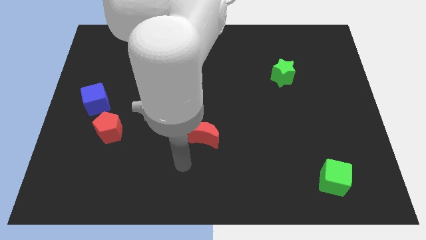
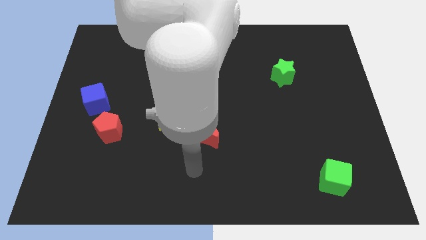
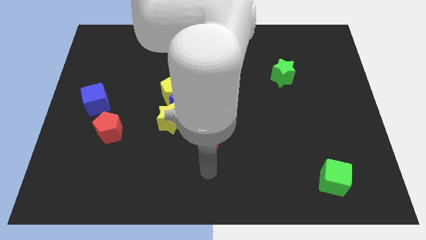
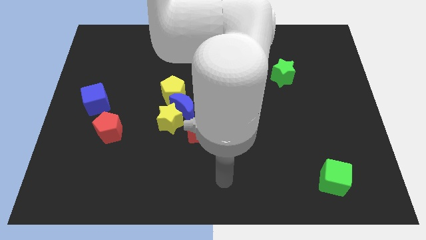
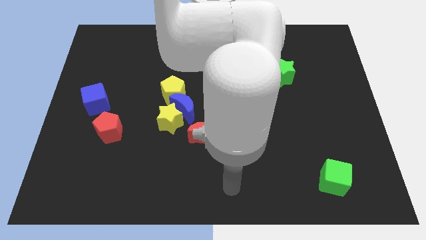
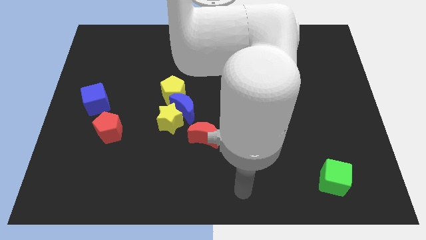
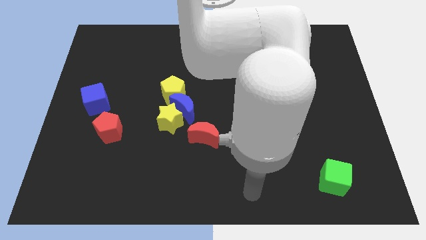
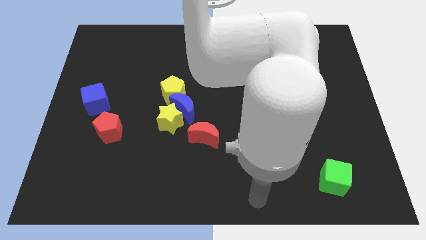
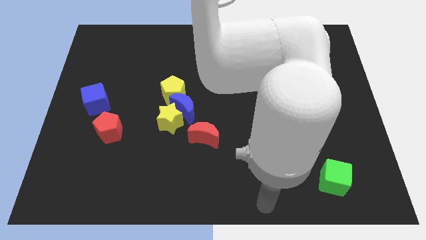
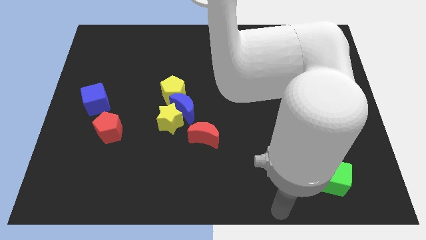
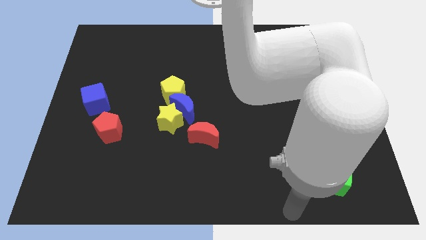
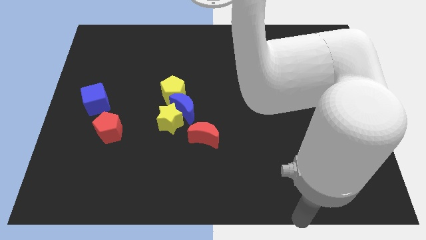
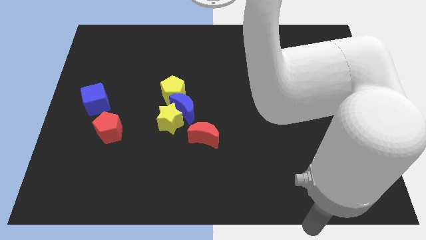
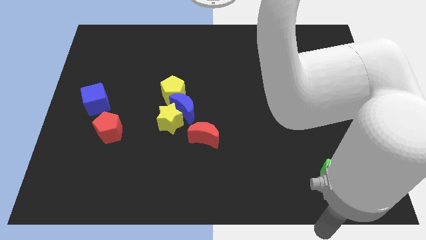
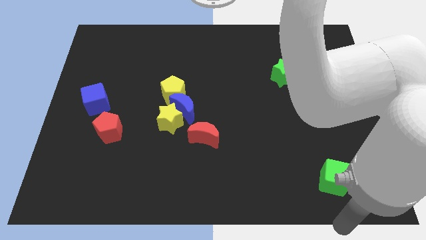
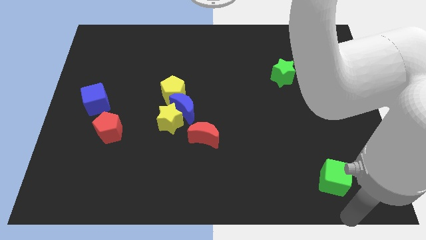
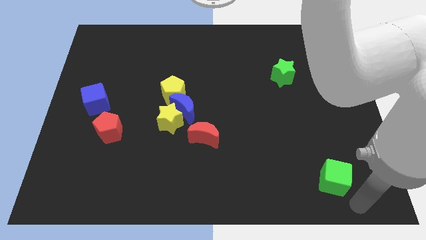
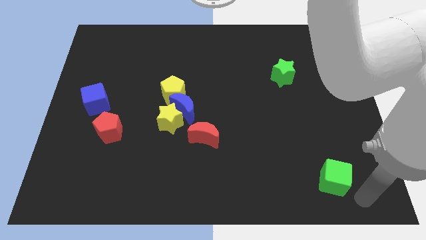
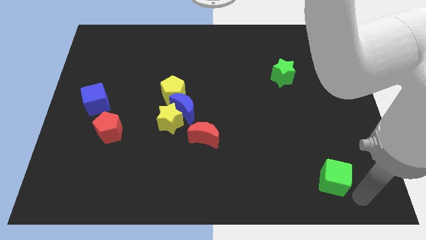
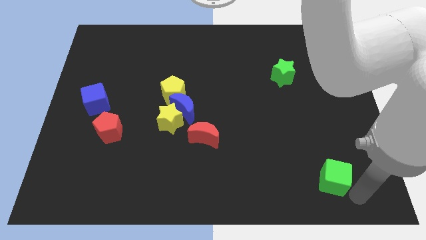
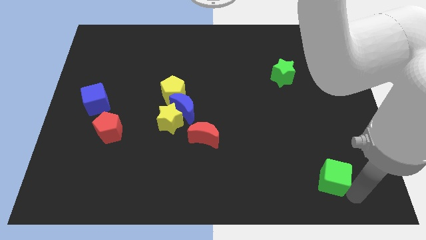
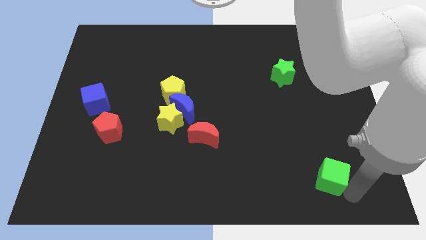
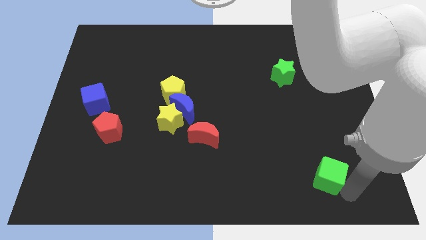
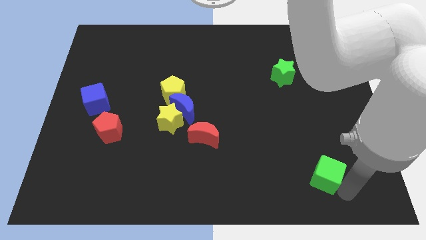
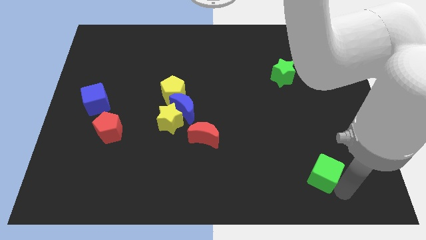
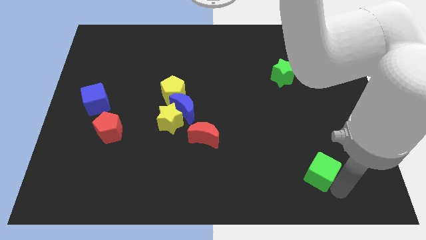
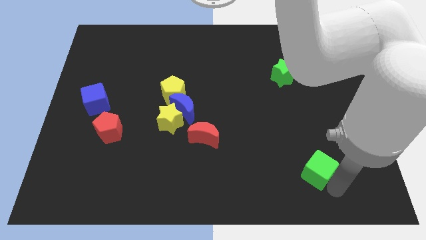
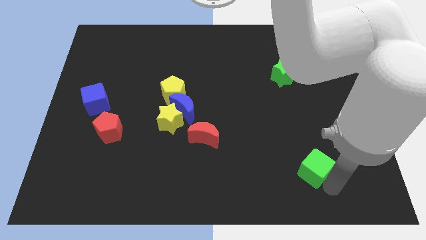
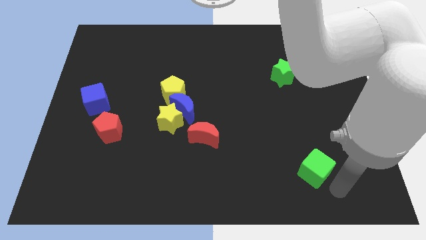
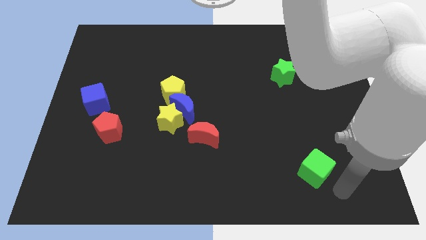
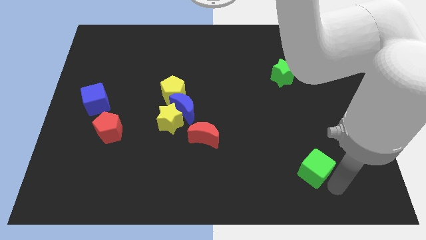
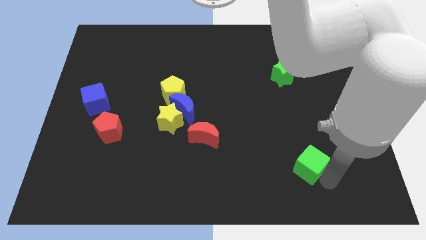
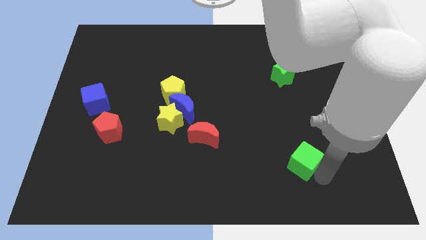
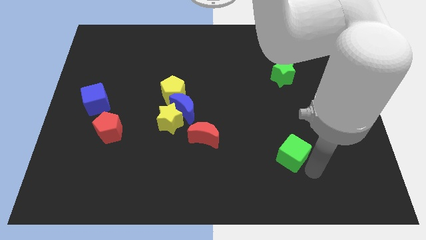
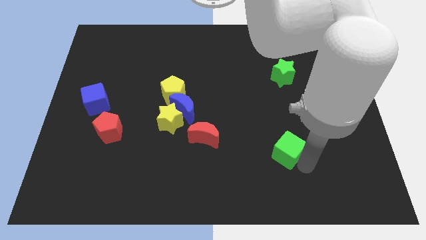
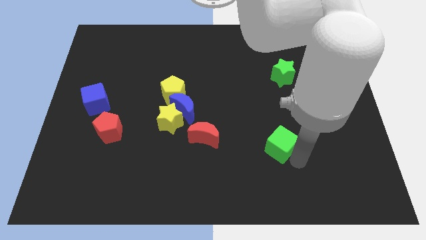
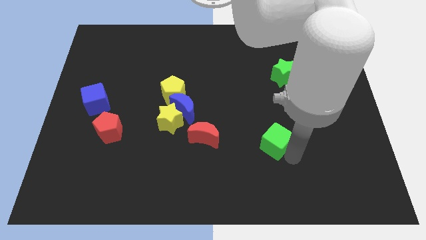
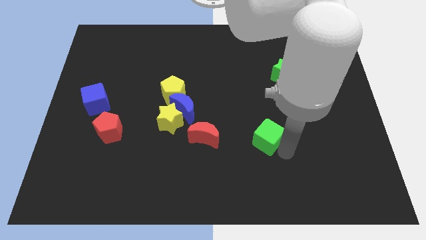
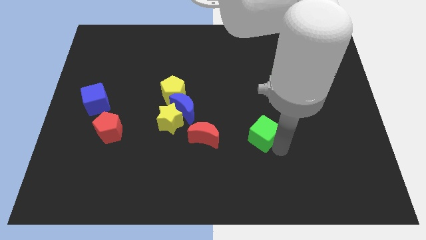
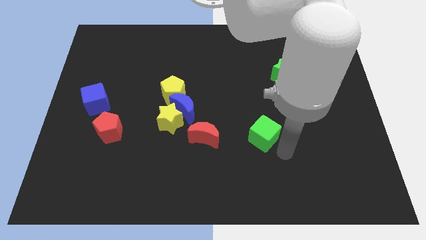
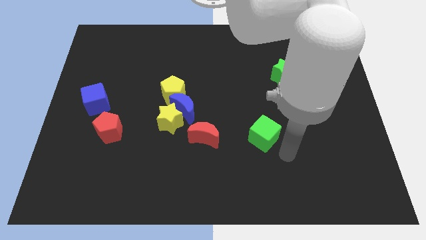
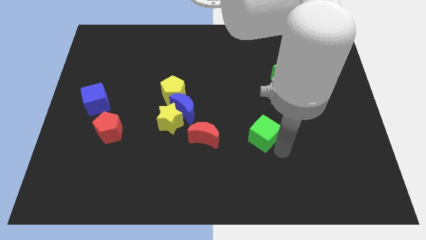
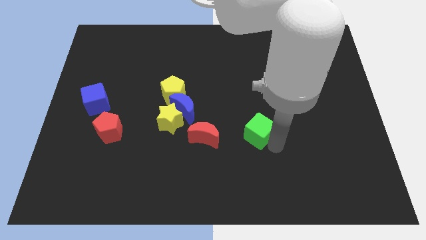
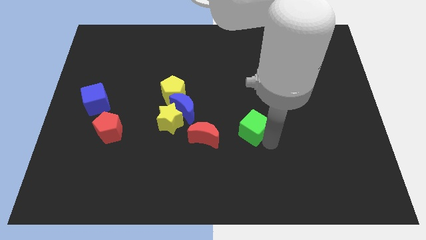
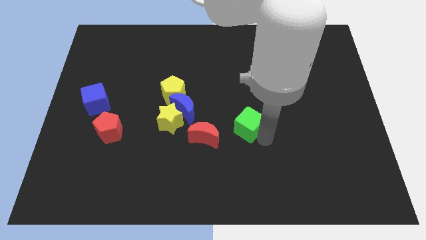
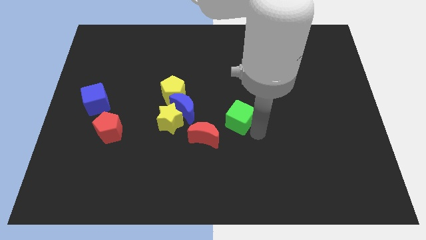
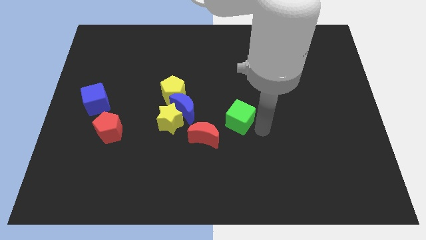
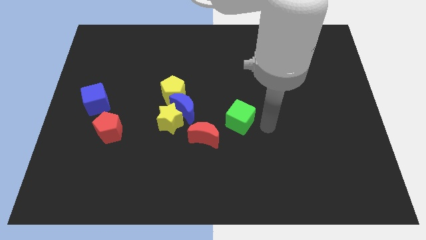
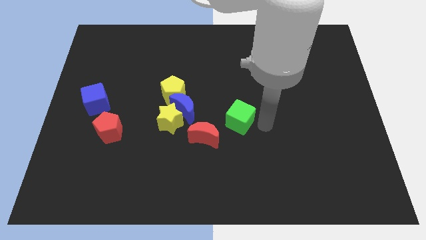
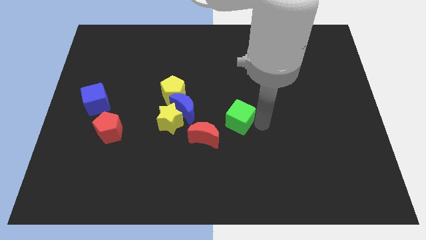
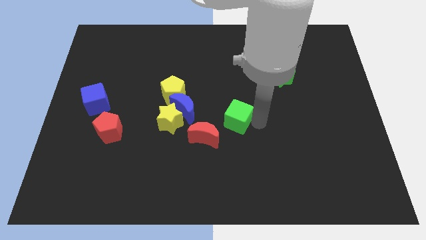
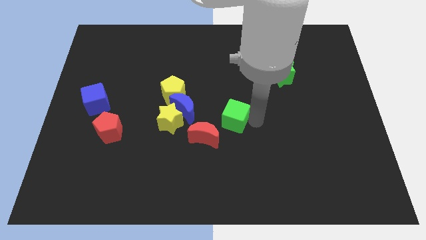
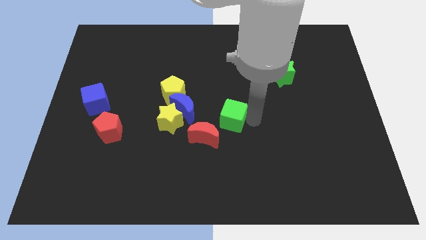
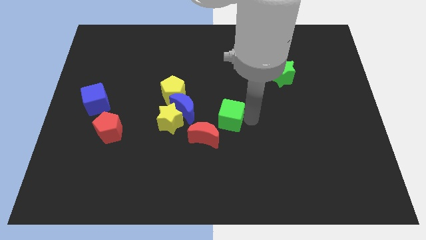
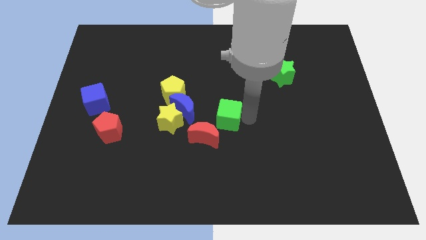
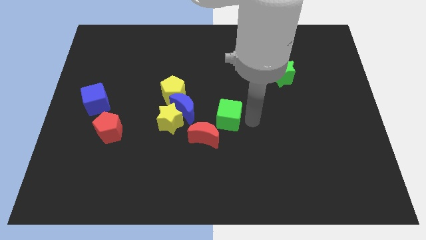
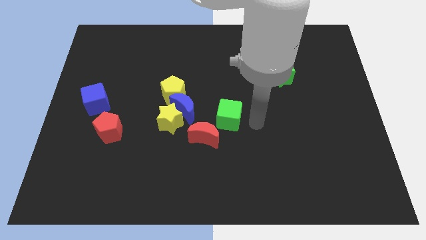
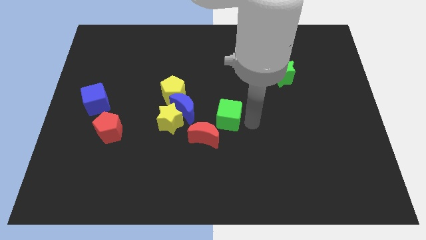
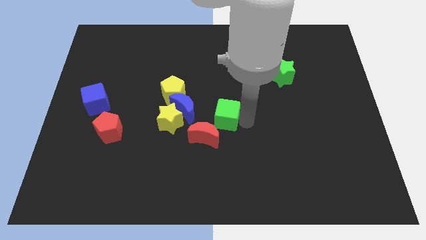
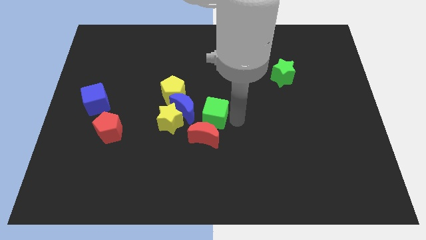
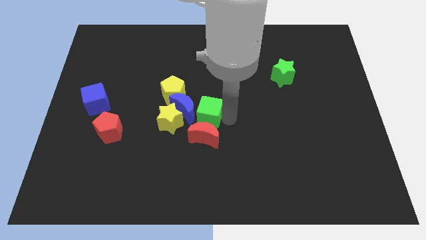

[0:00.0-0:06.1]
push the green cube next to the blue moon
